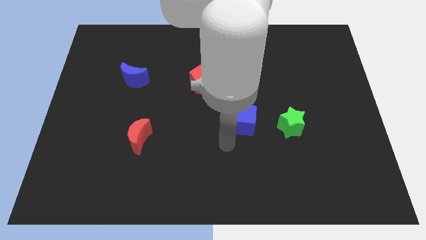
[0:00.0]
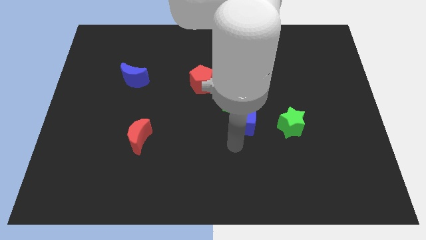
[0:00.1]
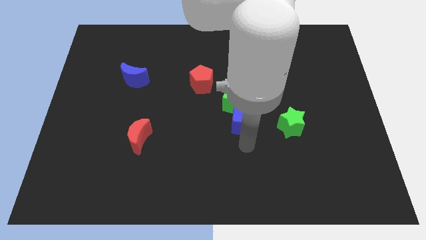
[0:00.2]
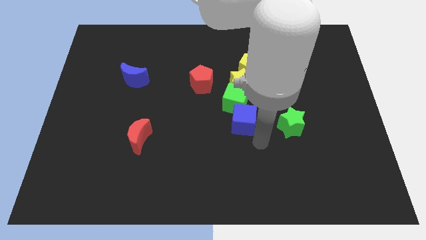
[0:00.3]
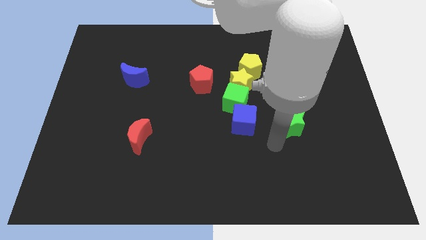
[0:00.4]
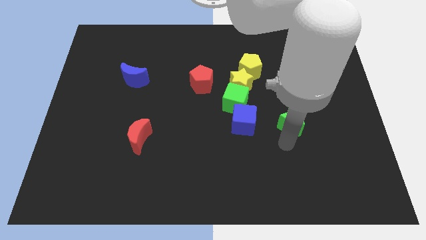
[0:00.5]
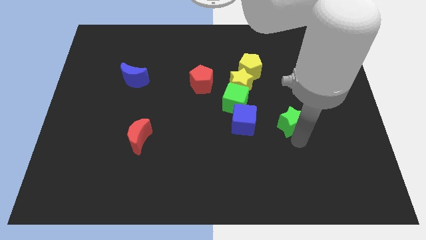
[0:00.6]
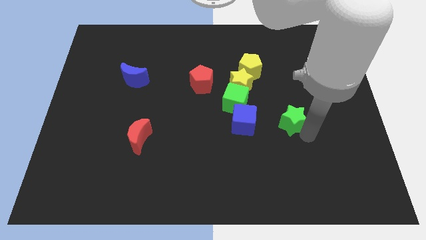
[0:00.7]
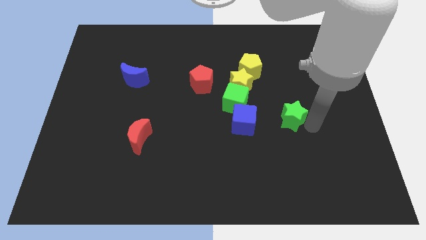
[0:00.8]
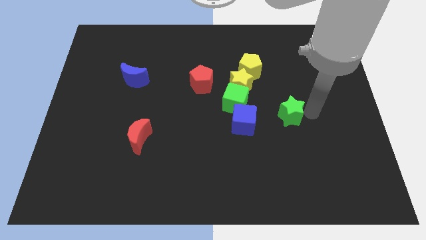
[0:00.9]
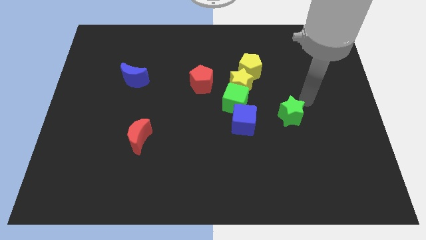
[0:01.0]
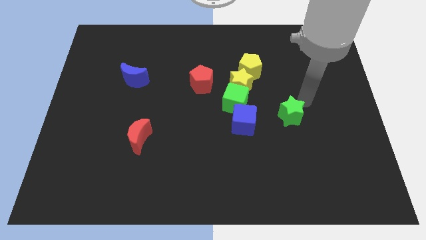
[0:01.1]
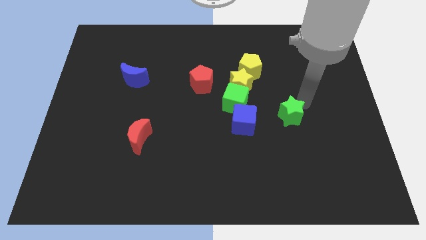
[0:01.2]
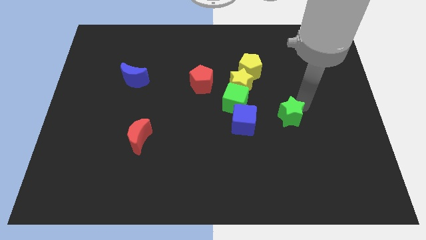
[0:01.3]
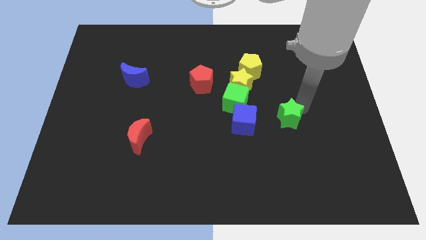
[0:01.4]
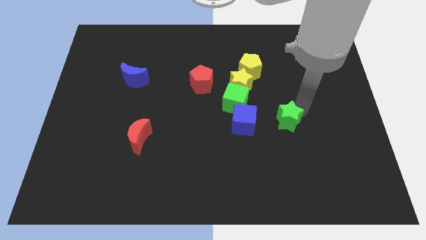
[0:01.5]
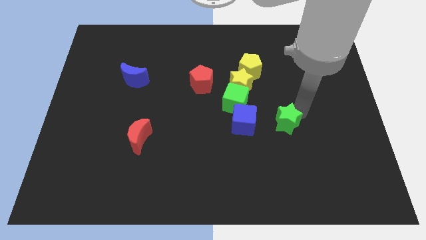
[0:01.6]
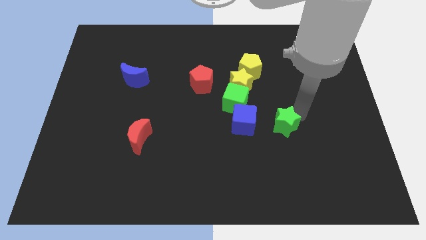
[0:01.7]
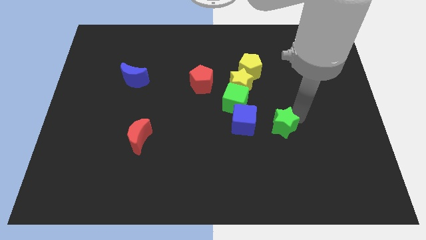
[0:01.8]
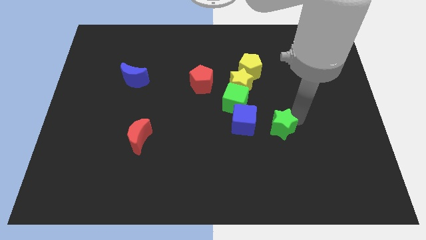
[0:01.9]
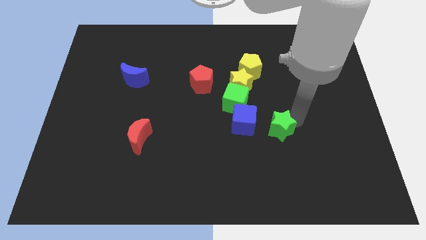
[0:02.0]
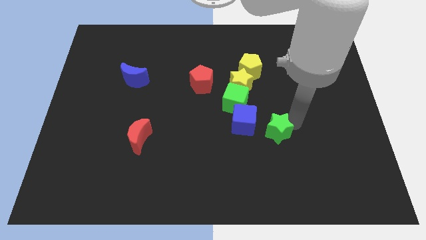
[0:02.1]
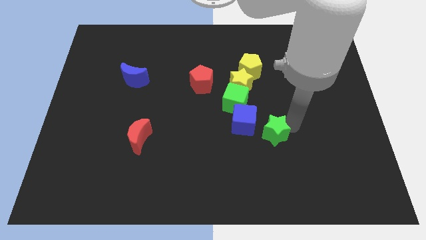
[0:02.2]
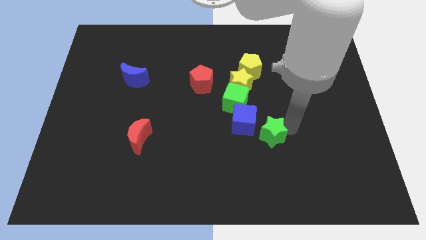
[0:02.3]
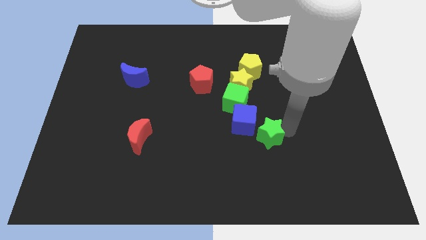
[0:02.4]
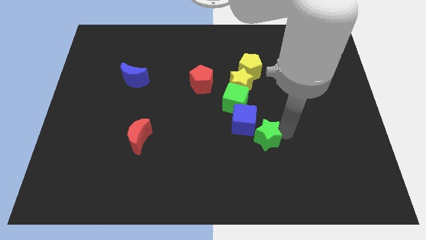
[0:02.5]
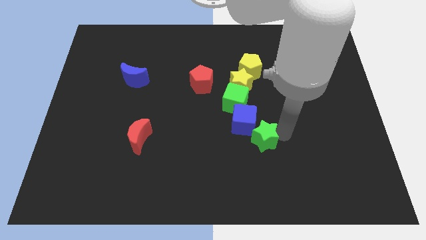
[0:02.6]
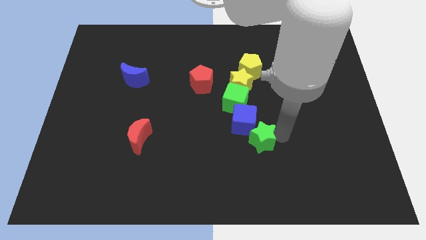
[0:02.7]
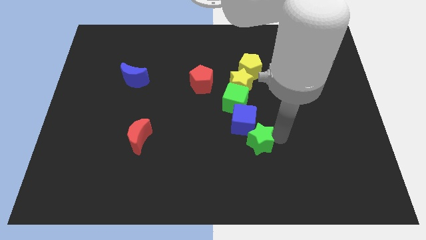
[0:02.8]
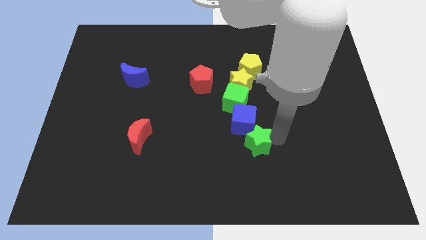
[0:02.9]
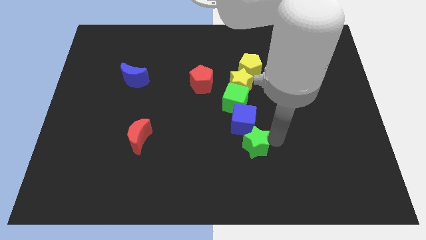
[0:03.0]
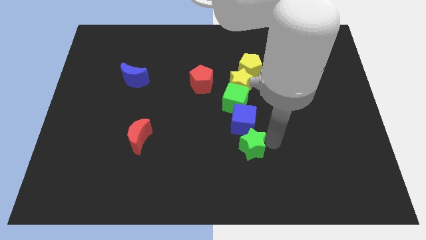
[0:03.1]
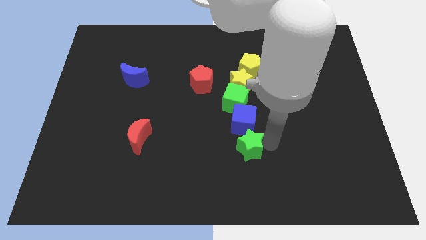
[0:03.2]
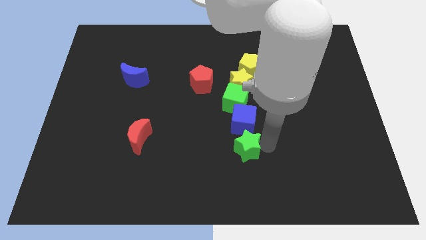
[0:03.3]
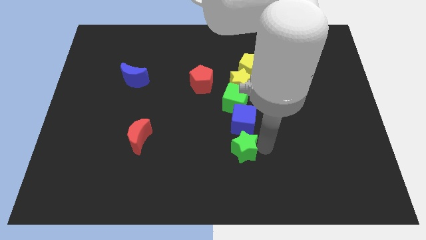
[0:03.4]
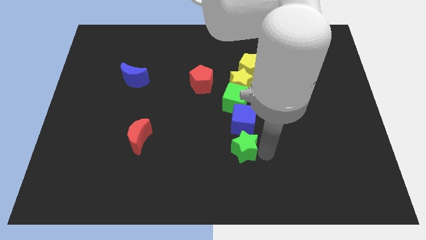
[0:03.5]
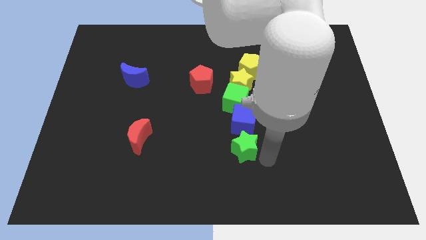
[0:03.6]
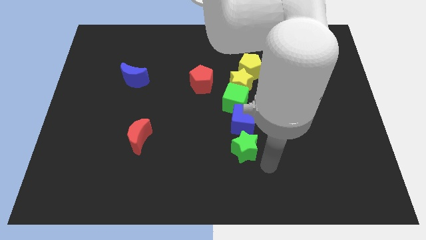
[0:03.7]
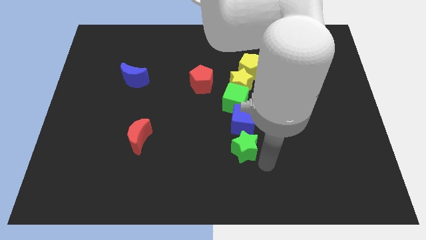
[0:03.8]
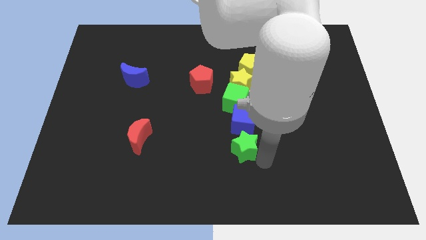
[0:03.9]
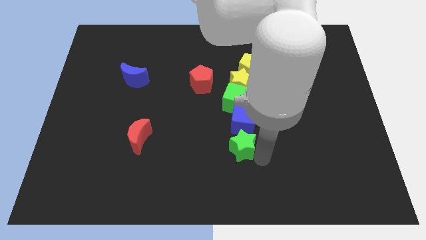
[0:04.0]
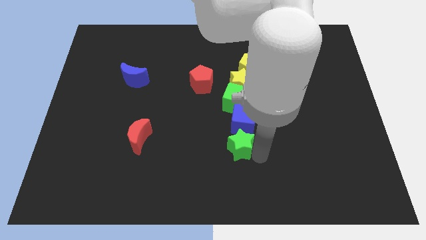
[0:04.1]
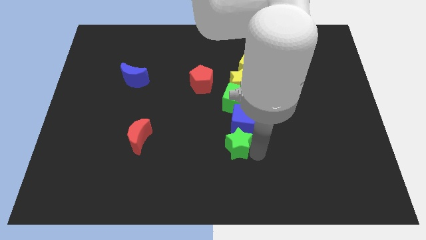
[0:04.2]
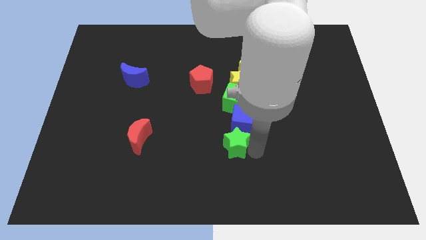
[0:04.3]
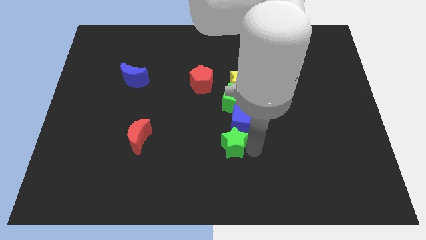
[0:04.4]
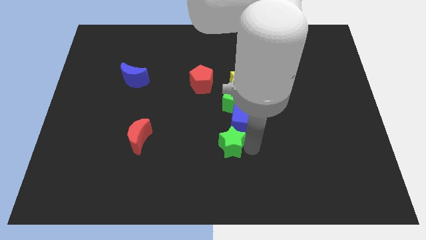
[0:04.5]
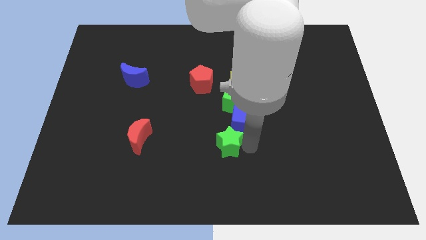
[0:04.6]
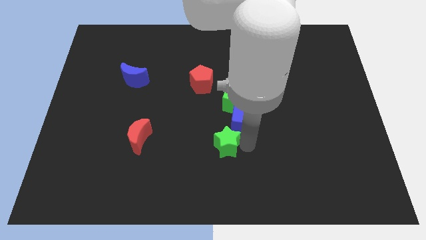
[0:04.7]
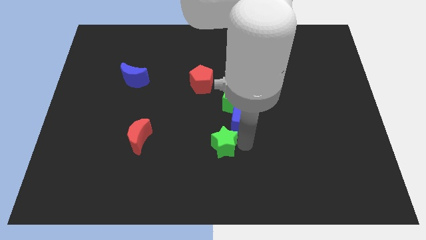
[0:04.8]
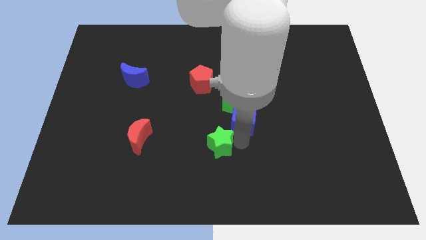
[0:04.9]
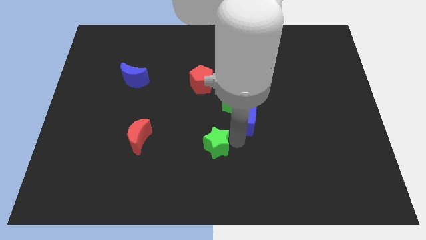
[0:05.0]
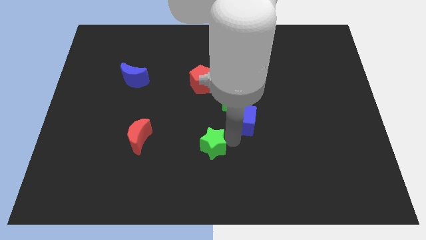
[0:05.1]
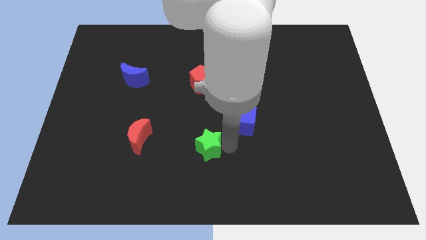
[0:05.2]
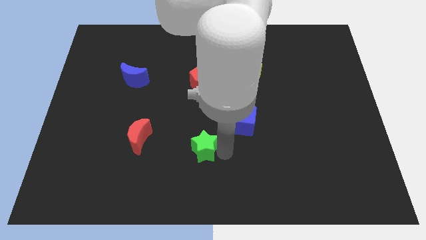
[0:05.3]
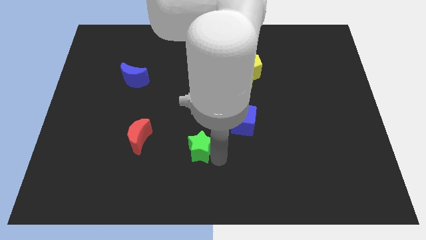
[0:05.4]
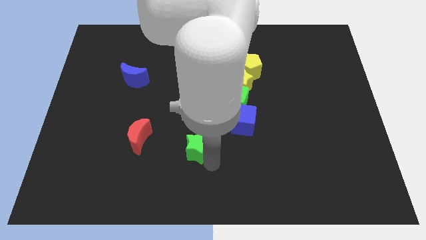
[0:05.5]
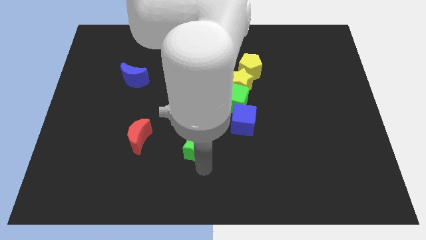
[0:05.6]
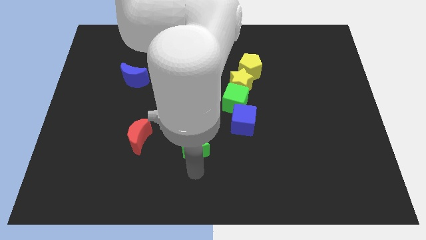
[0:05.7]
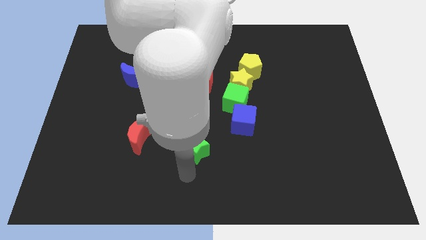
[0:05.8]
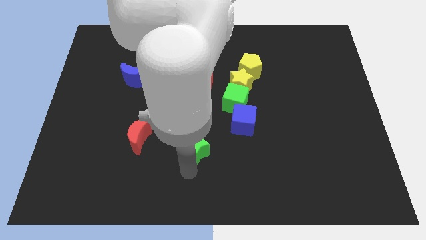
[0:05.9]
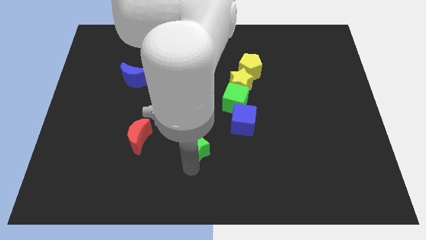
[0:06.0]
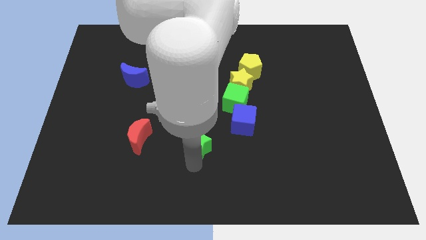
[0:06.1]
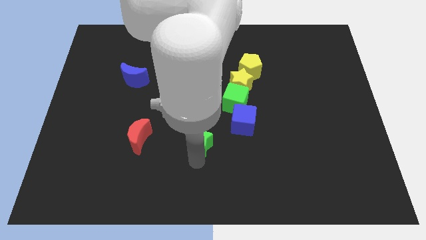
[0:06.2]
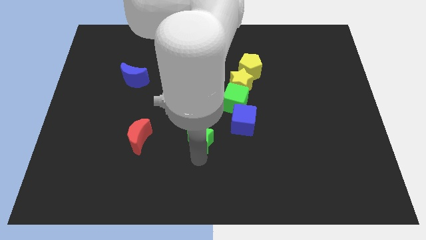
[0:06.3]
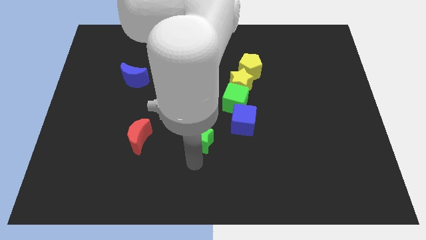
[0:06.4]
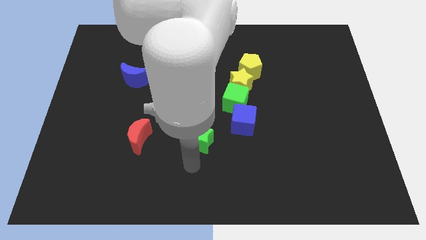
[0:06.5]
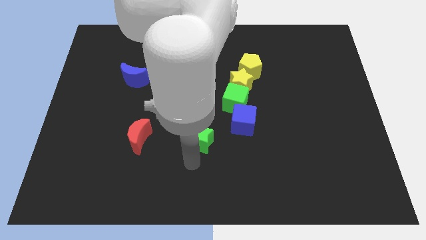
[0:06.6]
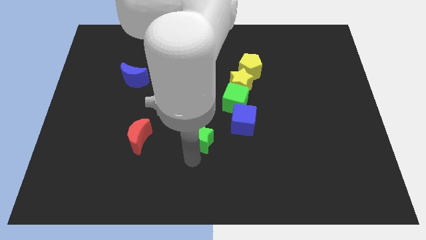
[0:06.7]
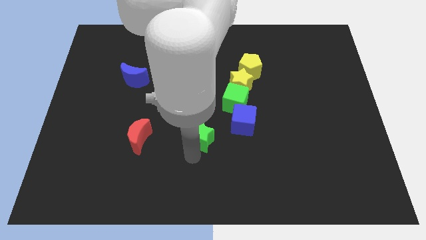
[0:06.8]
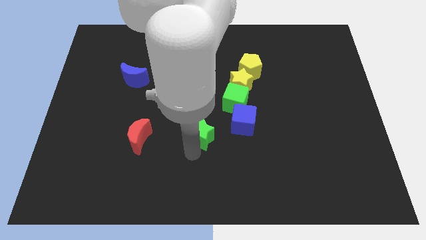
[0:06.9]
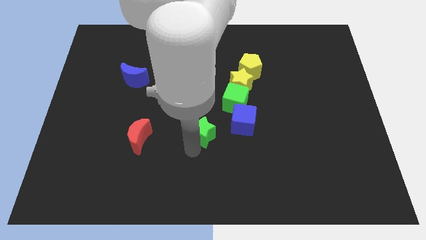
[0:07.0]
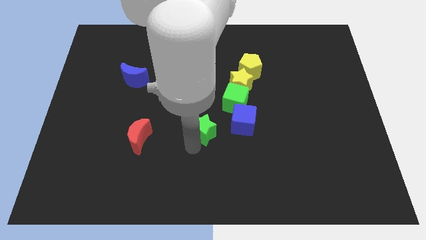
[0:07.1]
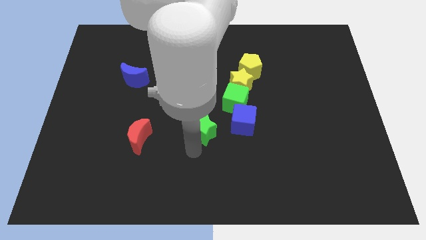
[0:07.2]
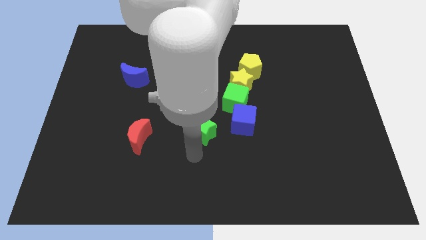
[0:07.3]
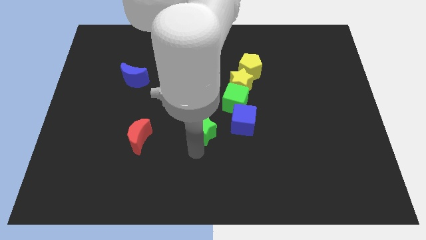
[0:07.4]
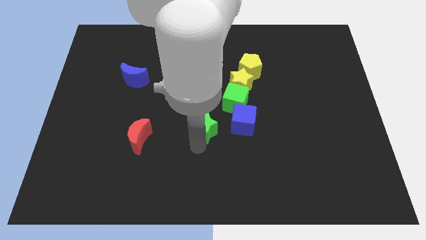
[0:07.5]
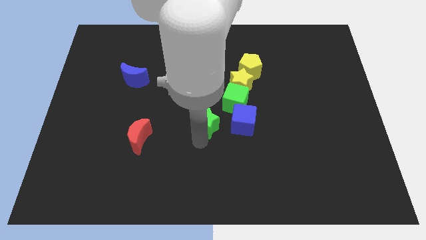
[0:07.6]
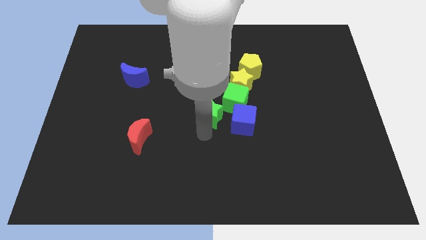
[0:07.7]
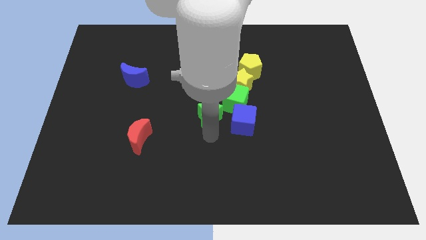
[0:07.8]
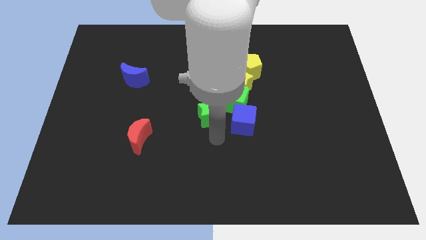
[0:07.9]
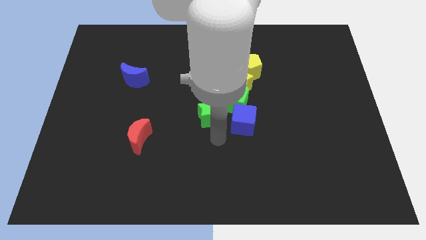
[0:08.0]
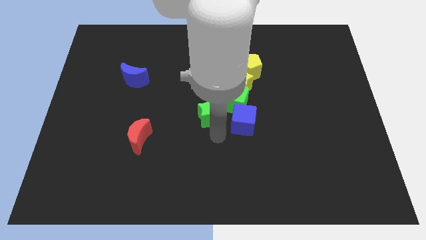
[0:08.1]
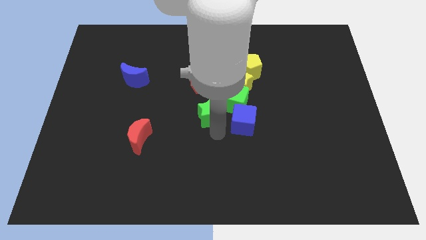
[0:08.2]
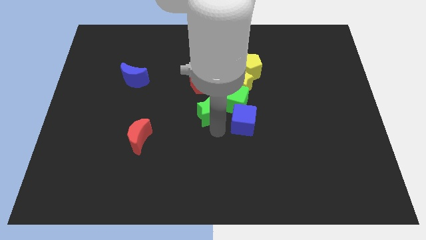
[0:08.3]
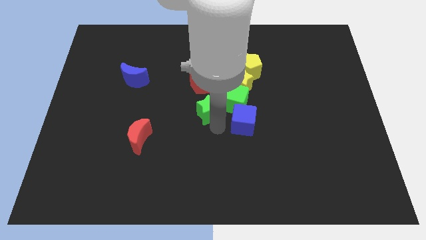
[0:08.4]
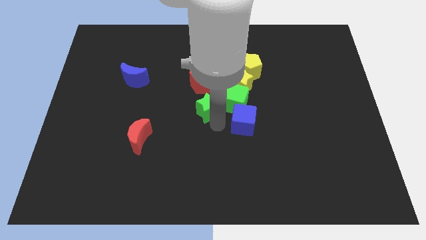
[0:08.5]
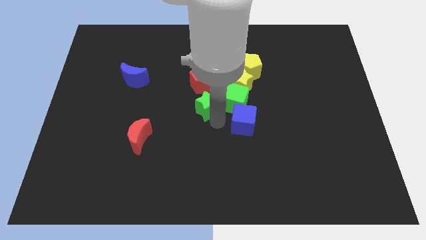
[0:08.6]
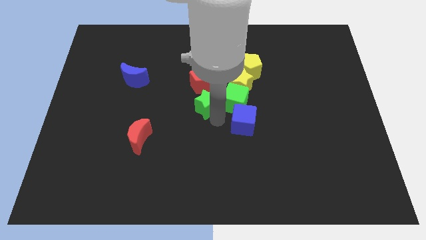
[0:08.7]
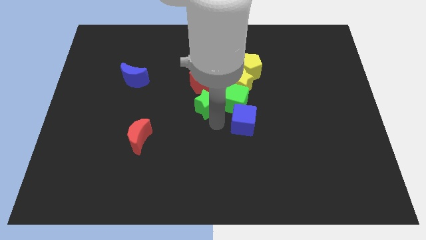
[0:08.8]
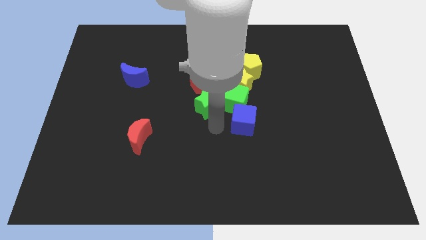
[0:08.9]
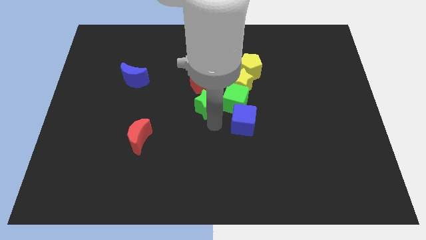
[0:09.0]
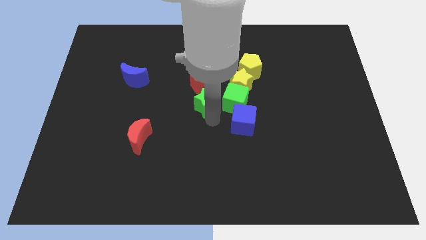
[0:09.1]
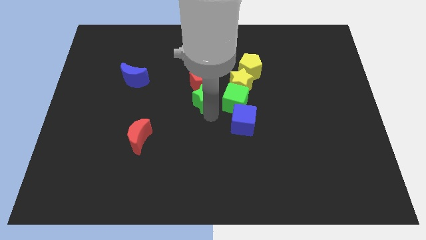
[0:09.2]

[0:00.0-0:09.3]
slide the green star to the red pentagon
